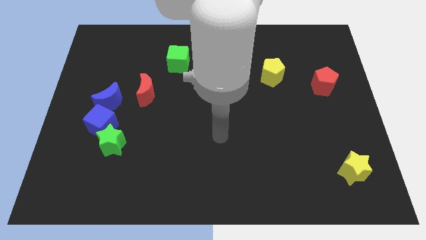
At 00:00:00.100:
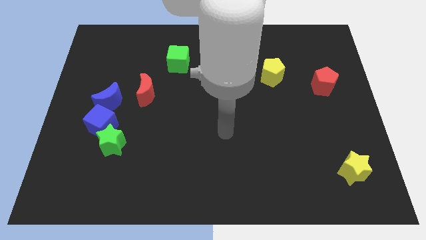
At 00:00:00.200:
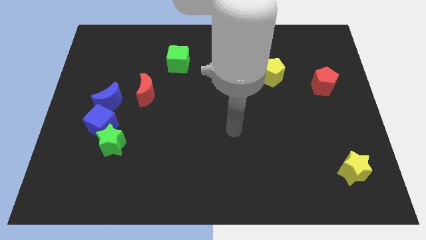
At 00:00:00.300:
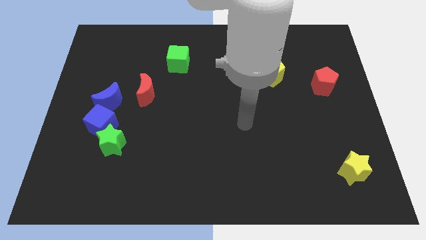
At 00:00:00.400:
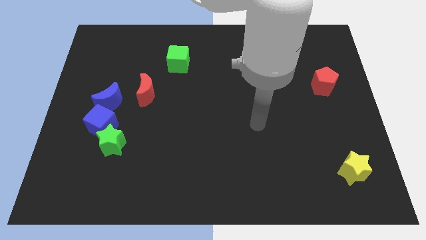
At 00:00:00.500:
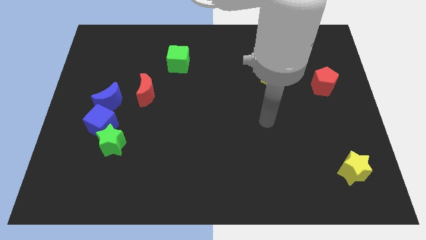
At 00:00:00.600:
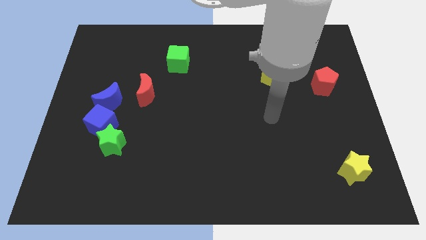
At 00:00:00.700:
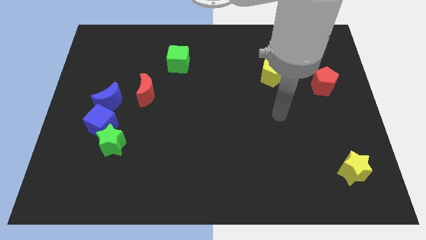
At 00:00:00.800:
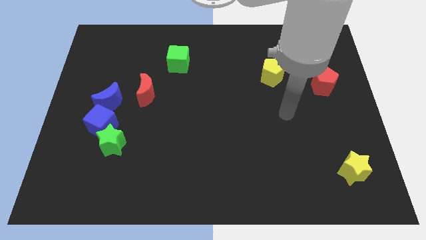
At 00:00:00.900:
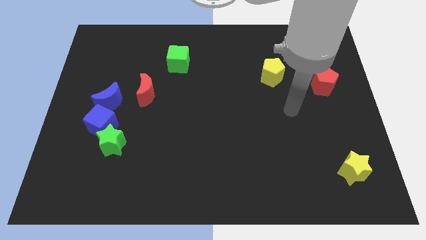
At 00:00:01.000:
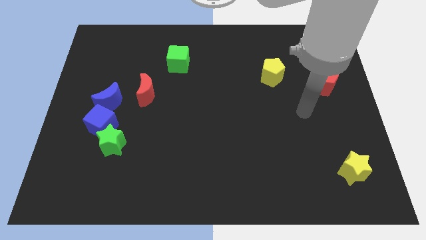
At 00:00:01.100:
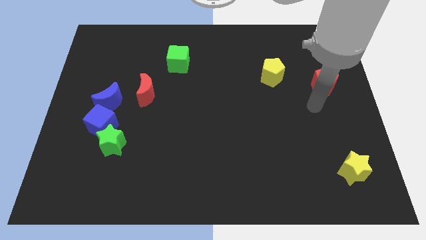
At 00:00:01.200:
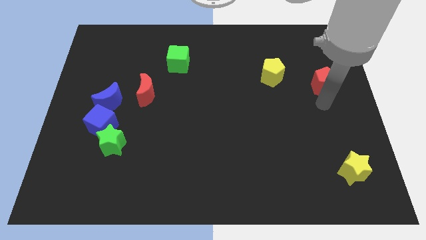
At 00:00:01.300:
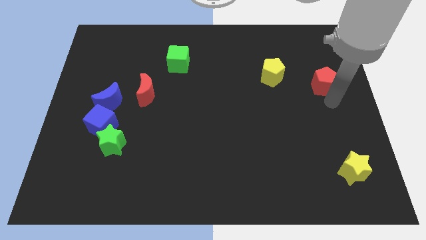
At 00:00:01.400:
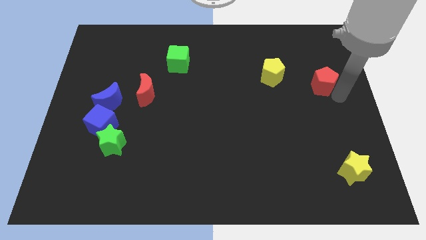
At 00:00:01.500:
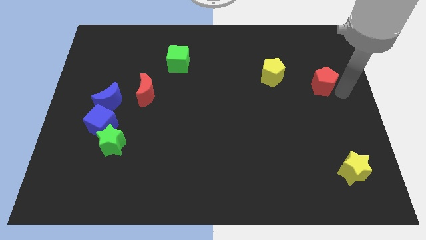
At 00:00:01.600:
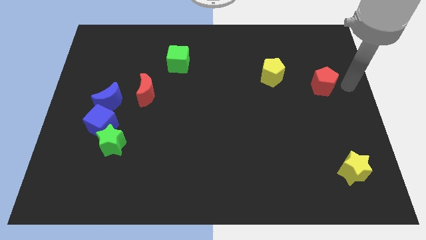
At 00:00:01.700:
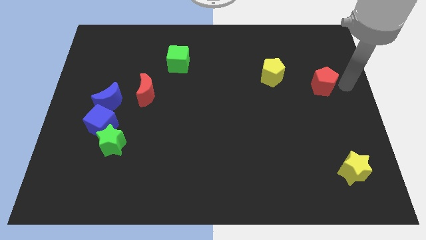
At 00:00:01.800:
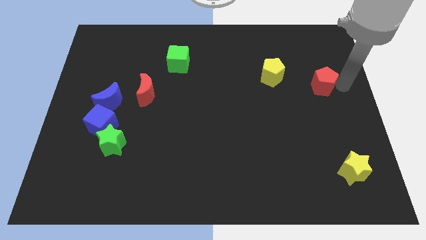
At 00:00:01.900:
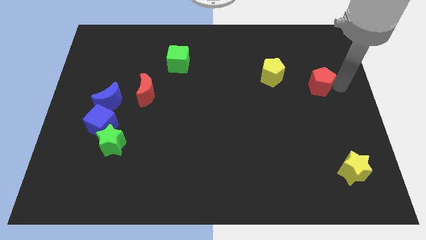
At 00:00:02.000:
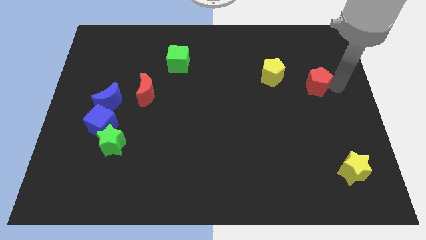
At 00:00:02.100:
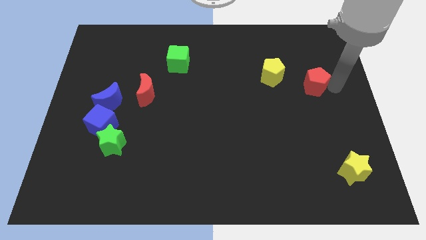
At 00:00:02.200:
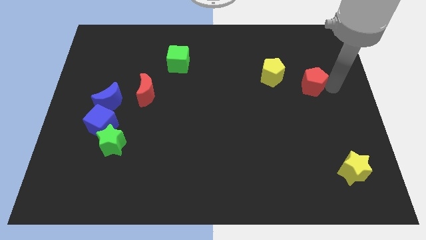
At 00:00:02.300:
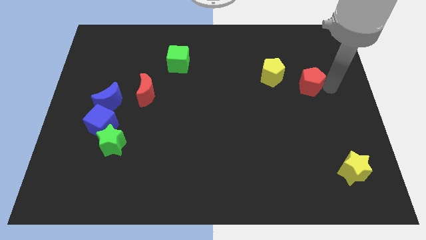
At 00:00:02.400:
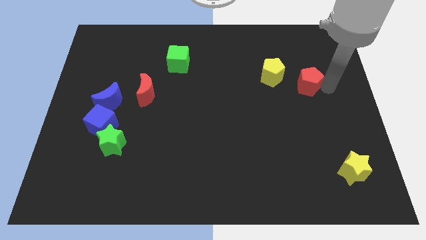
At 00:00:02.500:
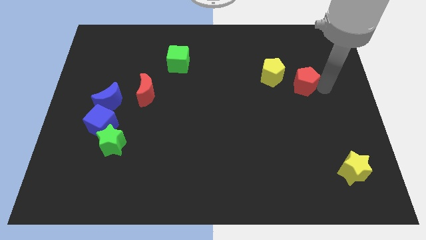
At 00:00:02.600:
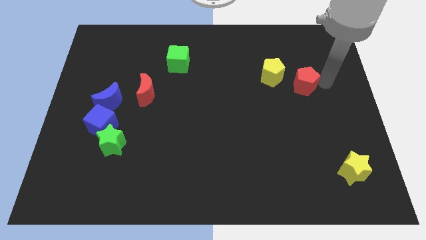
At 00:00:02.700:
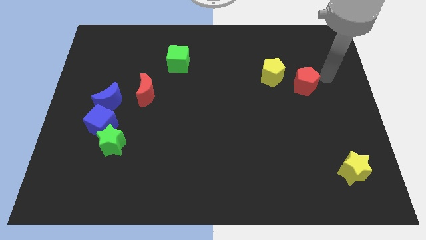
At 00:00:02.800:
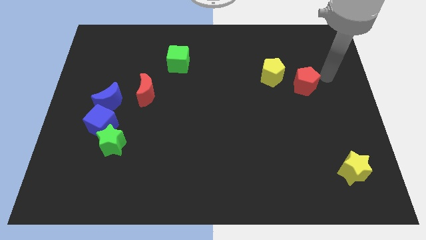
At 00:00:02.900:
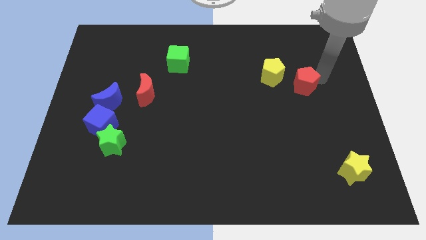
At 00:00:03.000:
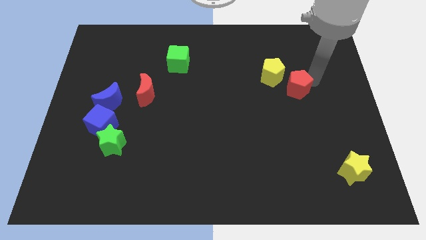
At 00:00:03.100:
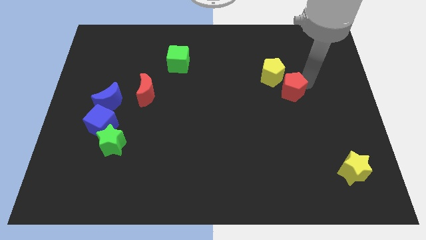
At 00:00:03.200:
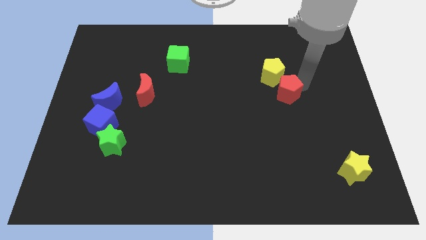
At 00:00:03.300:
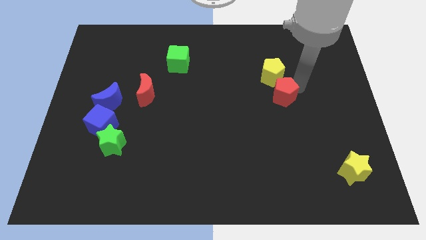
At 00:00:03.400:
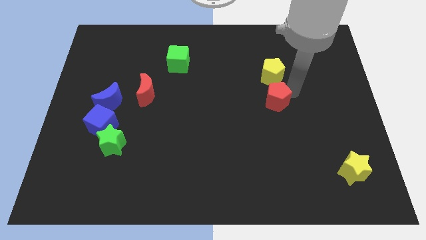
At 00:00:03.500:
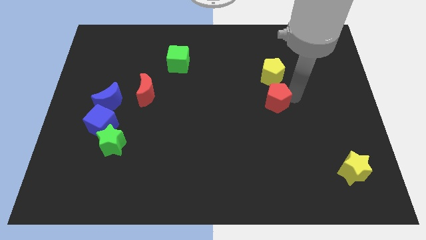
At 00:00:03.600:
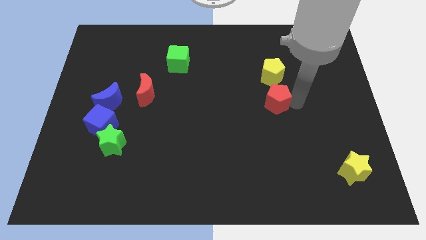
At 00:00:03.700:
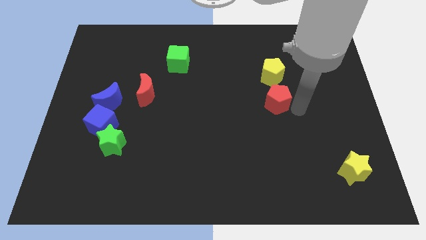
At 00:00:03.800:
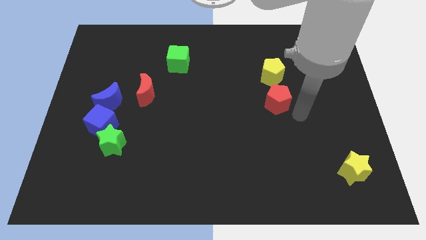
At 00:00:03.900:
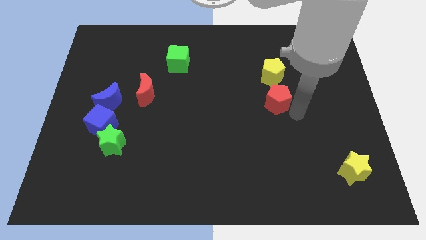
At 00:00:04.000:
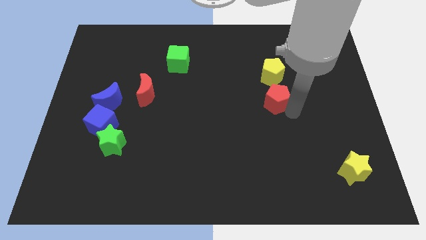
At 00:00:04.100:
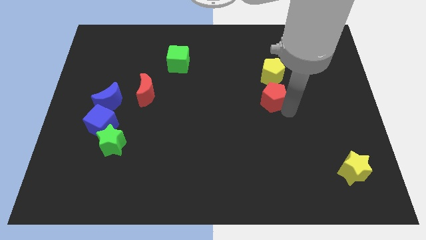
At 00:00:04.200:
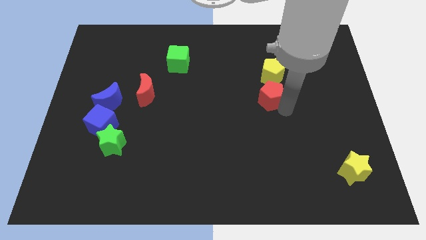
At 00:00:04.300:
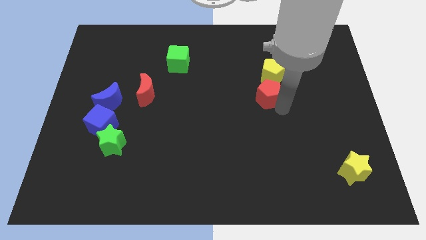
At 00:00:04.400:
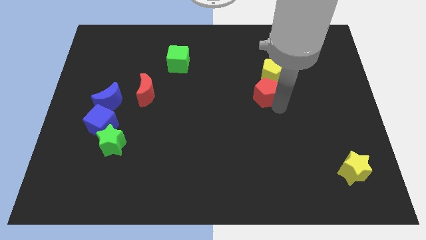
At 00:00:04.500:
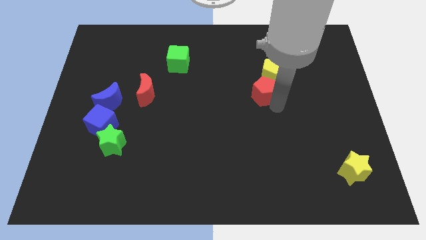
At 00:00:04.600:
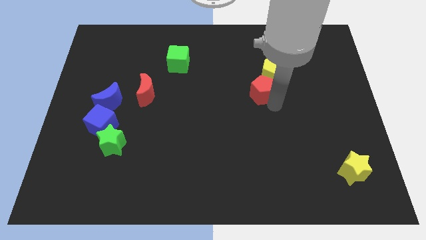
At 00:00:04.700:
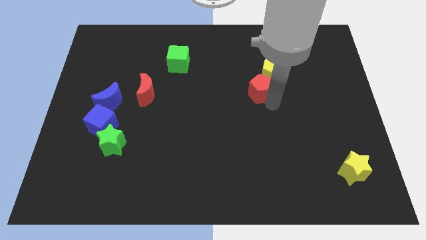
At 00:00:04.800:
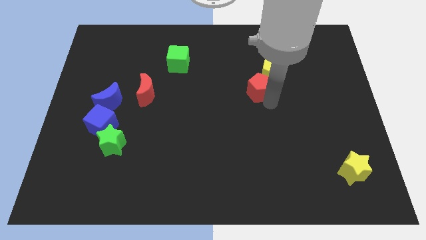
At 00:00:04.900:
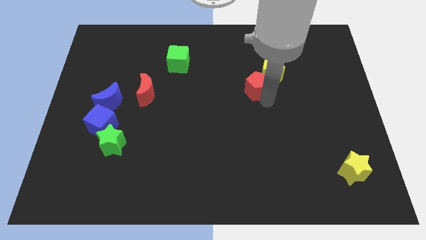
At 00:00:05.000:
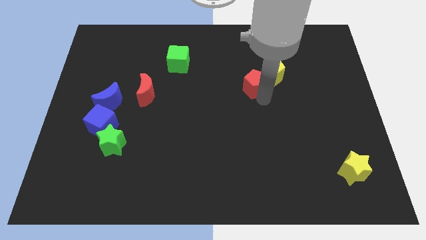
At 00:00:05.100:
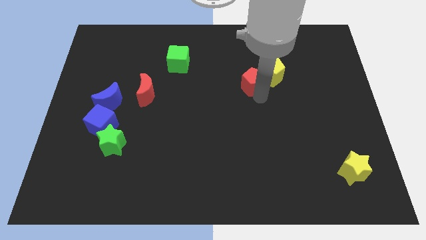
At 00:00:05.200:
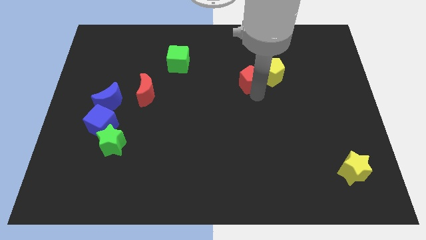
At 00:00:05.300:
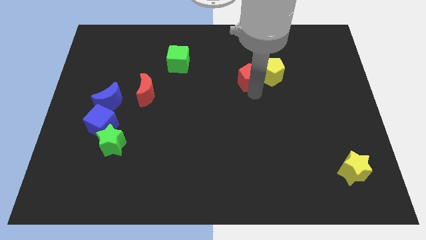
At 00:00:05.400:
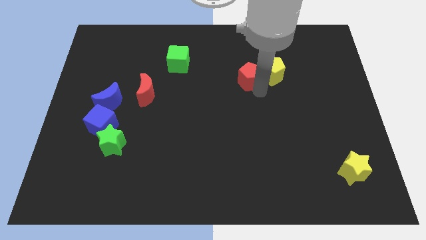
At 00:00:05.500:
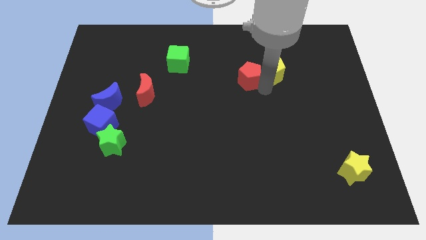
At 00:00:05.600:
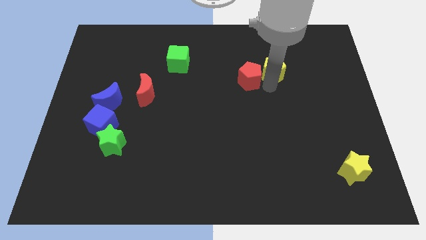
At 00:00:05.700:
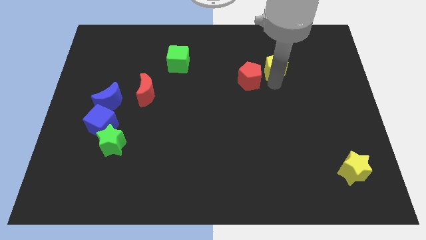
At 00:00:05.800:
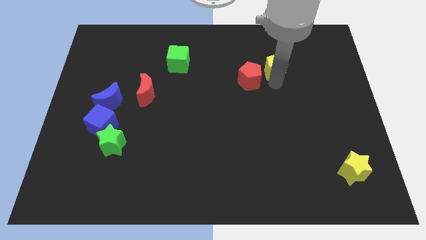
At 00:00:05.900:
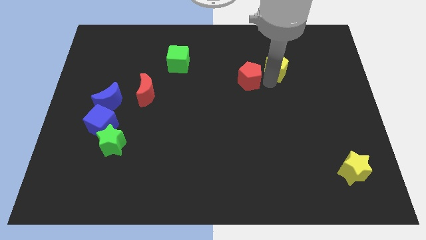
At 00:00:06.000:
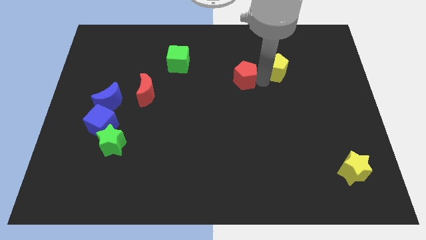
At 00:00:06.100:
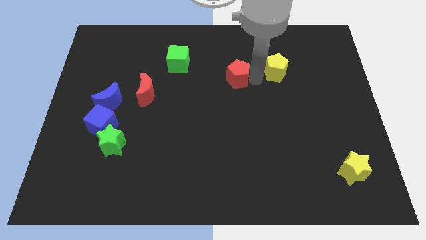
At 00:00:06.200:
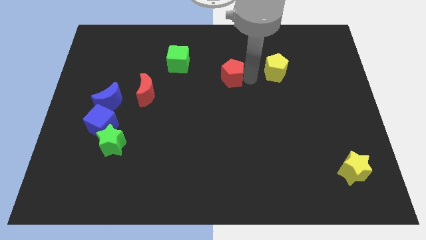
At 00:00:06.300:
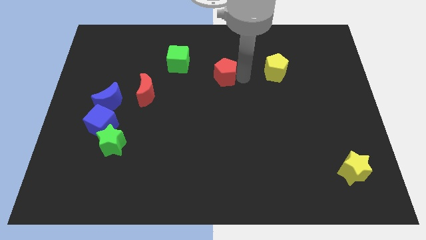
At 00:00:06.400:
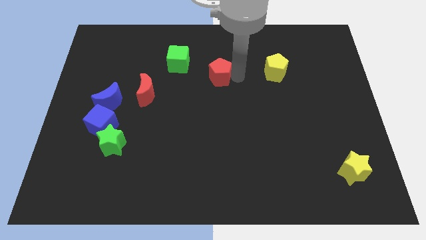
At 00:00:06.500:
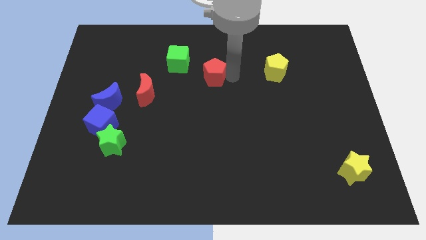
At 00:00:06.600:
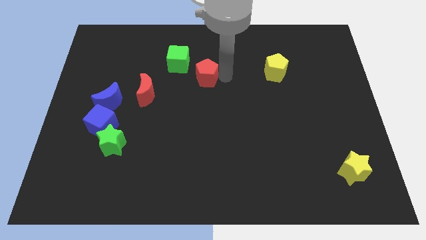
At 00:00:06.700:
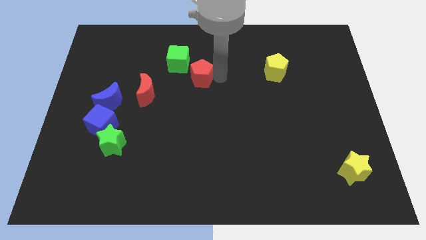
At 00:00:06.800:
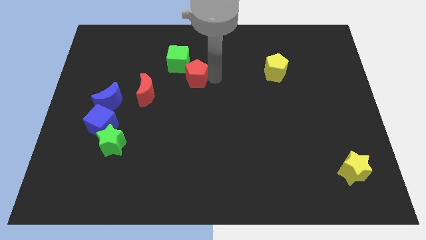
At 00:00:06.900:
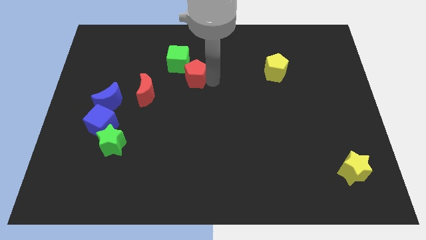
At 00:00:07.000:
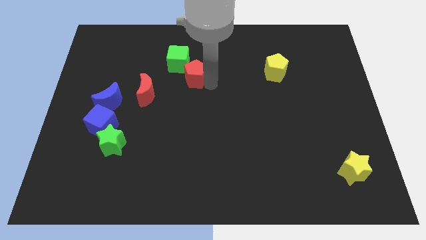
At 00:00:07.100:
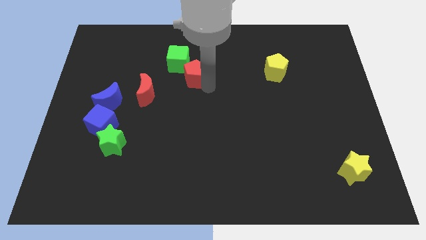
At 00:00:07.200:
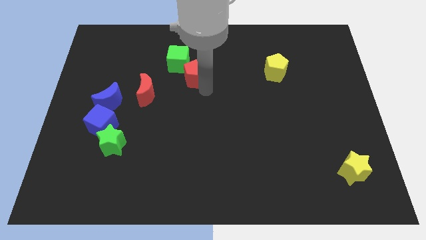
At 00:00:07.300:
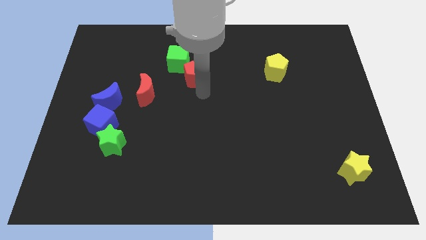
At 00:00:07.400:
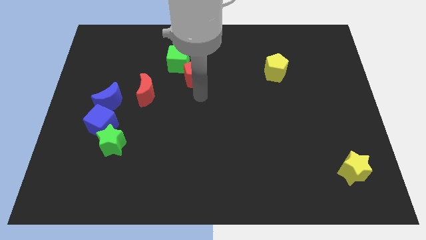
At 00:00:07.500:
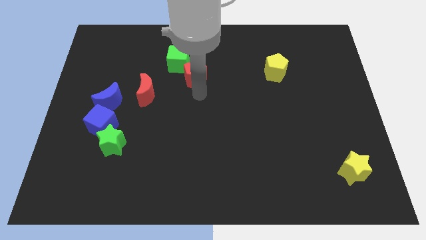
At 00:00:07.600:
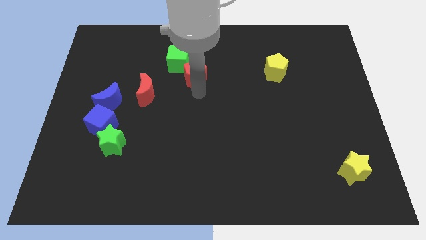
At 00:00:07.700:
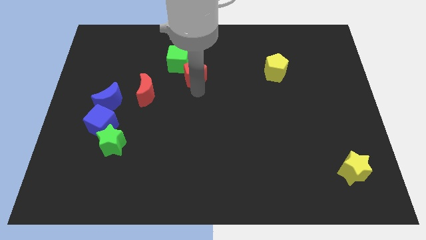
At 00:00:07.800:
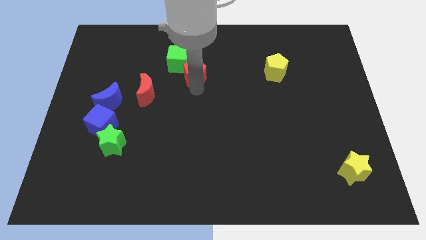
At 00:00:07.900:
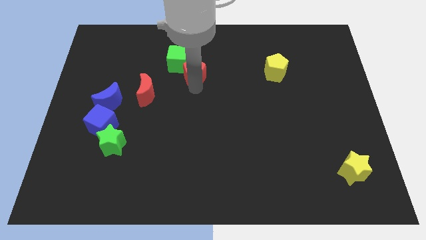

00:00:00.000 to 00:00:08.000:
move the red pentagon to the green cube
